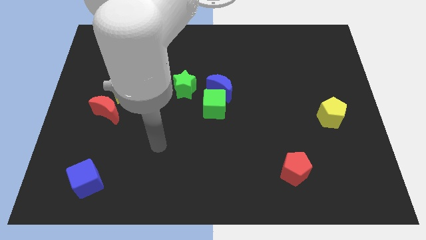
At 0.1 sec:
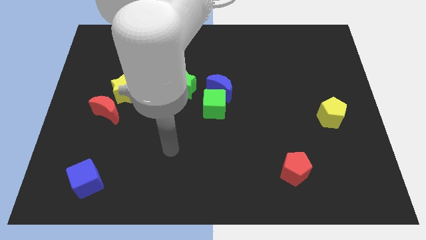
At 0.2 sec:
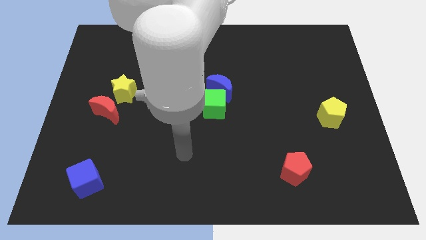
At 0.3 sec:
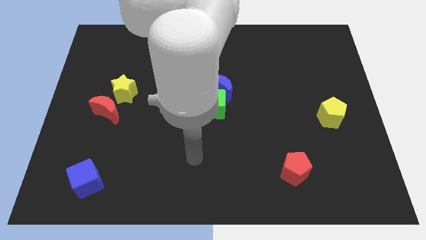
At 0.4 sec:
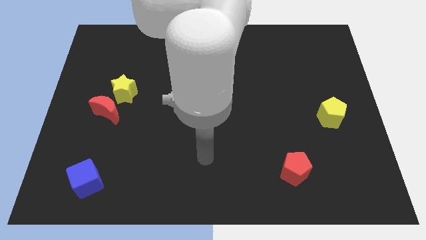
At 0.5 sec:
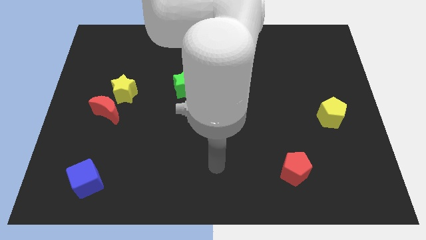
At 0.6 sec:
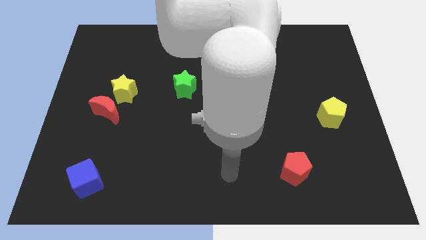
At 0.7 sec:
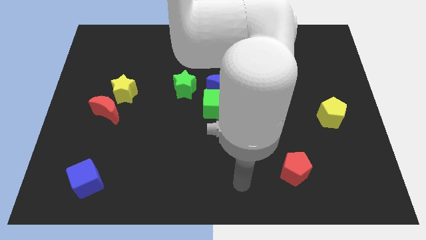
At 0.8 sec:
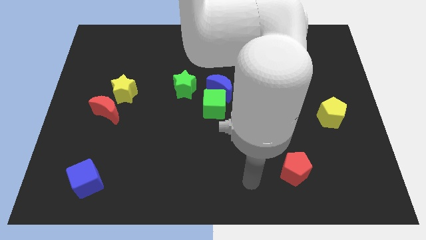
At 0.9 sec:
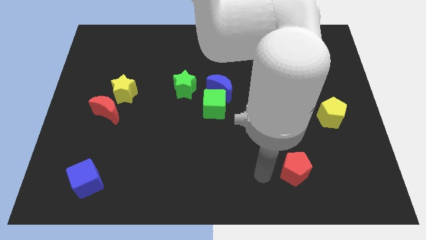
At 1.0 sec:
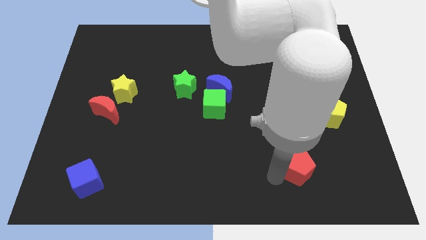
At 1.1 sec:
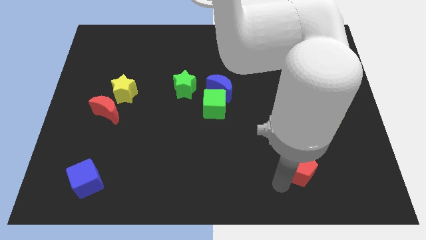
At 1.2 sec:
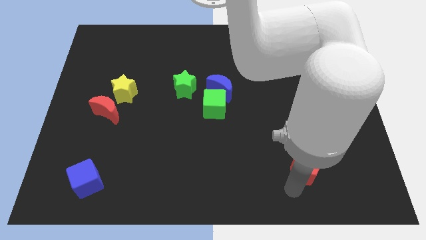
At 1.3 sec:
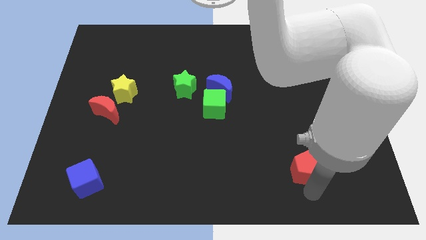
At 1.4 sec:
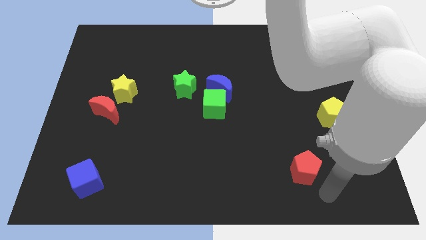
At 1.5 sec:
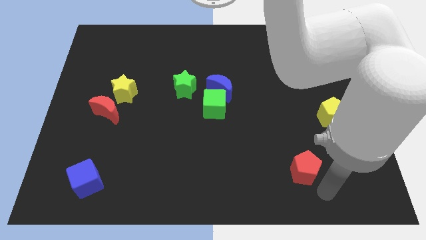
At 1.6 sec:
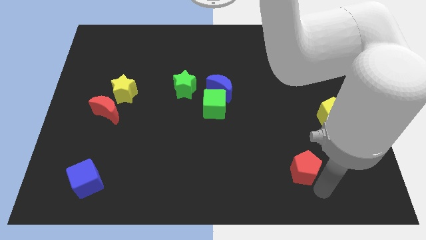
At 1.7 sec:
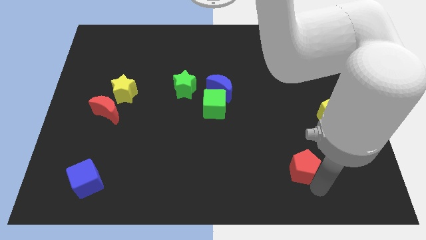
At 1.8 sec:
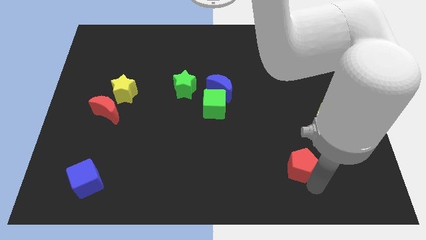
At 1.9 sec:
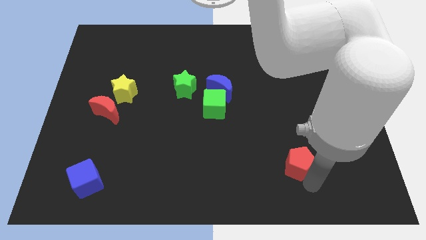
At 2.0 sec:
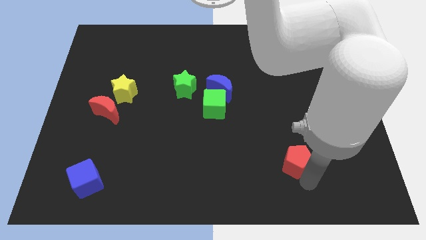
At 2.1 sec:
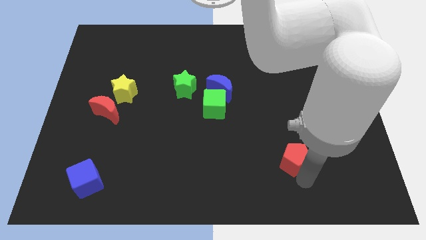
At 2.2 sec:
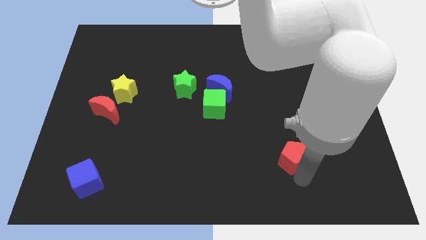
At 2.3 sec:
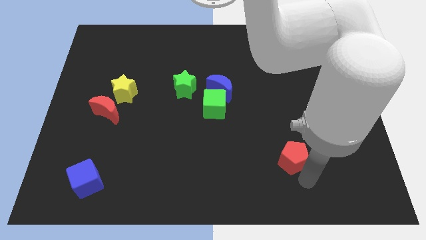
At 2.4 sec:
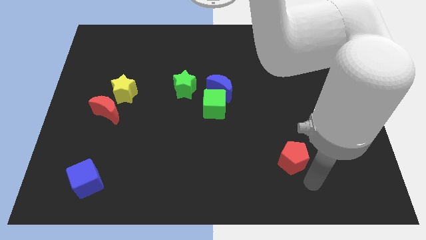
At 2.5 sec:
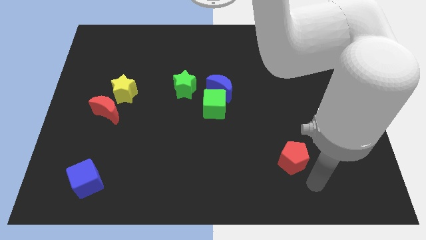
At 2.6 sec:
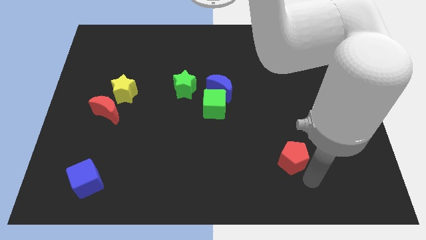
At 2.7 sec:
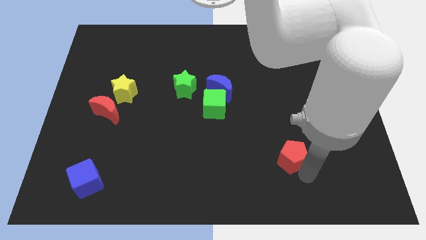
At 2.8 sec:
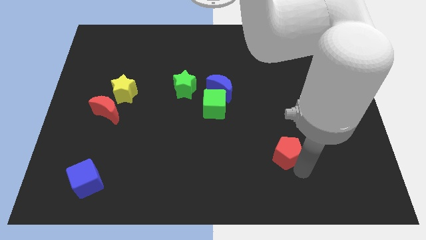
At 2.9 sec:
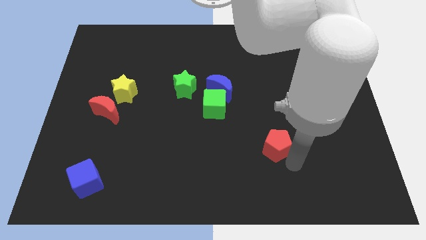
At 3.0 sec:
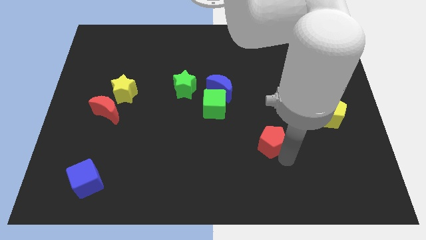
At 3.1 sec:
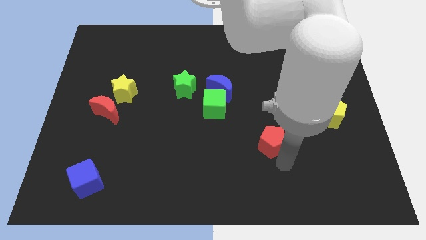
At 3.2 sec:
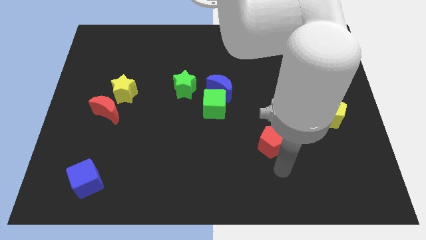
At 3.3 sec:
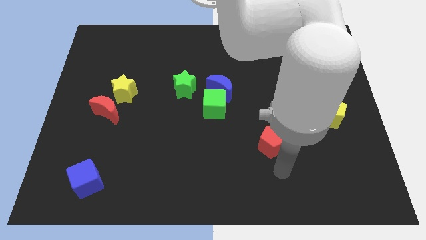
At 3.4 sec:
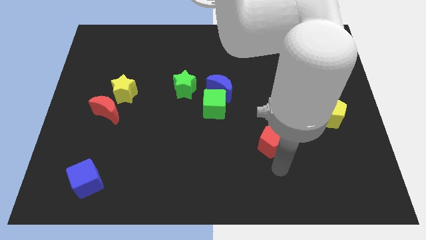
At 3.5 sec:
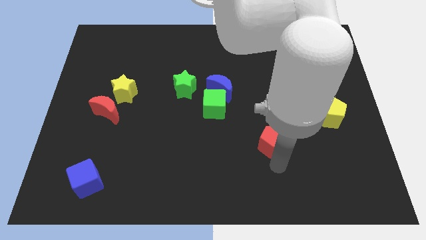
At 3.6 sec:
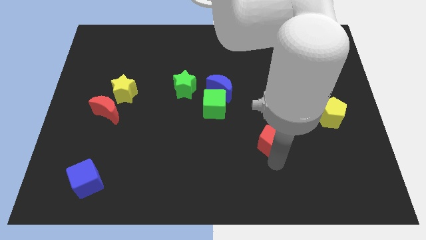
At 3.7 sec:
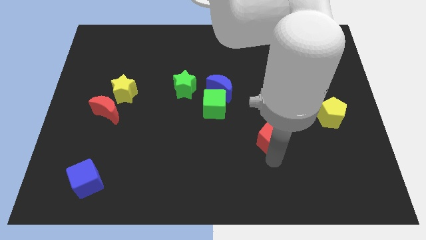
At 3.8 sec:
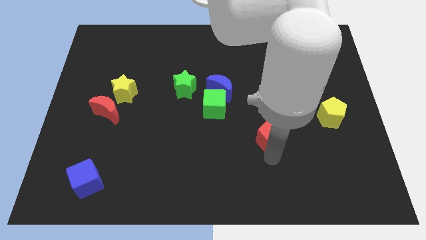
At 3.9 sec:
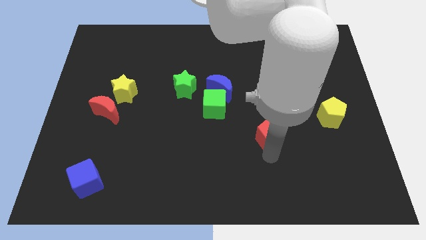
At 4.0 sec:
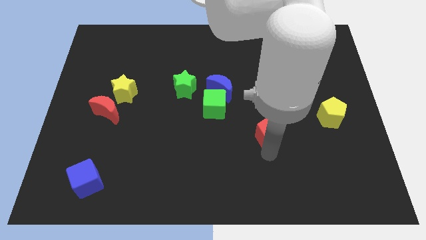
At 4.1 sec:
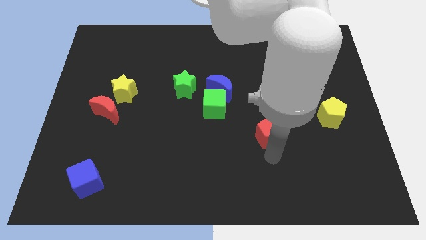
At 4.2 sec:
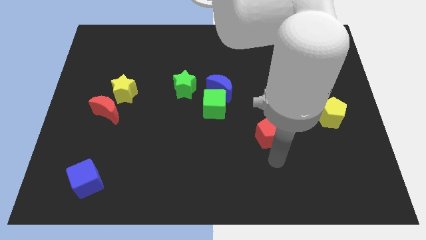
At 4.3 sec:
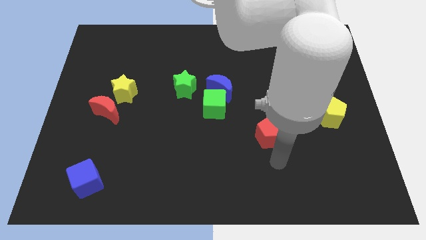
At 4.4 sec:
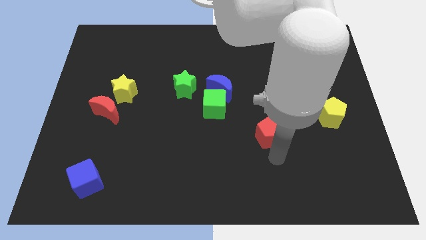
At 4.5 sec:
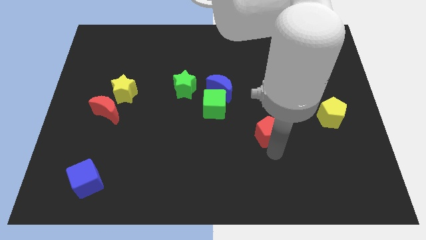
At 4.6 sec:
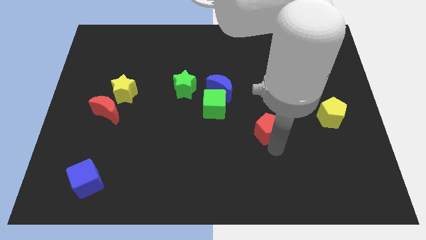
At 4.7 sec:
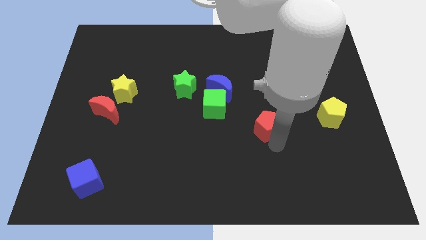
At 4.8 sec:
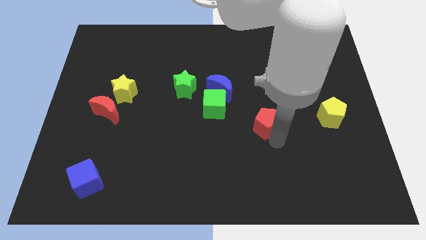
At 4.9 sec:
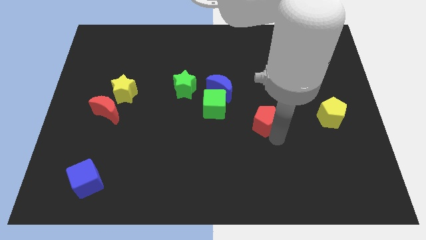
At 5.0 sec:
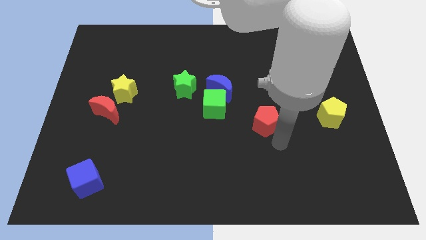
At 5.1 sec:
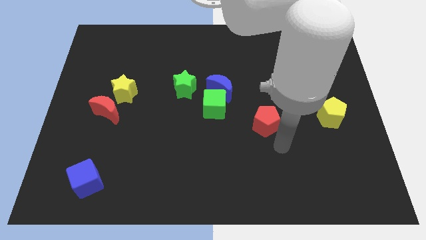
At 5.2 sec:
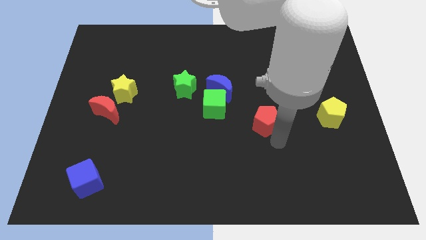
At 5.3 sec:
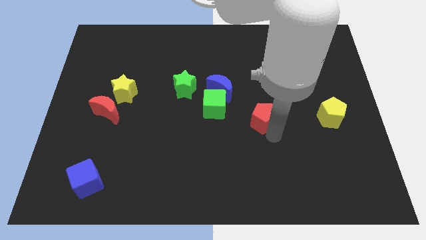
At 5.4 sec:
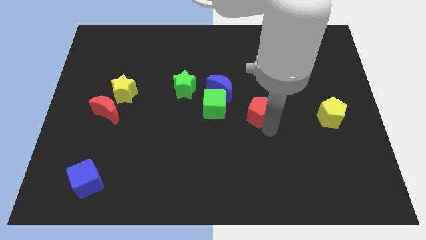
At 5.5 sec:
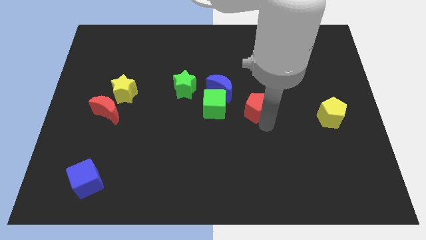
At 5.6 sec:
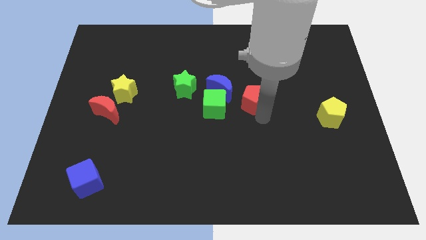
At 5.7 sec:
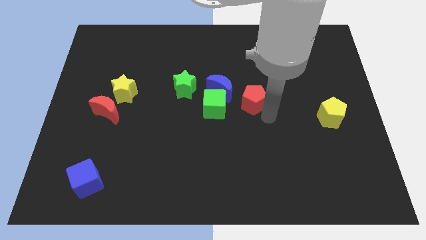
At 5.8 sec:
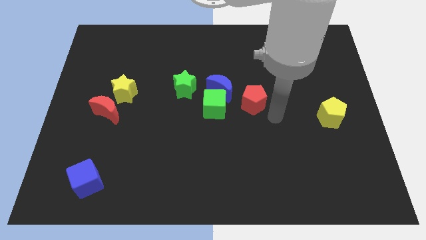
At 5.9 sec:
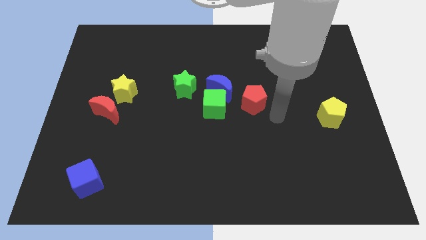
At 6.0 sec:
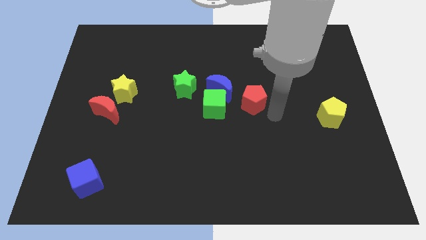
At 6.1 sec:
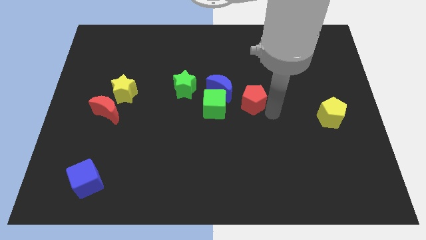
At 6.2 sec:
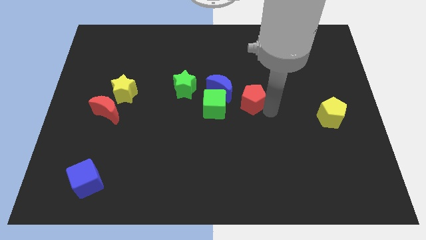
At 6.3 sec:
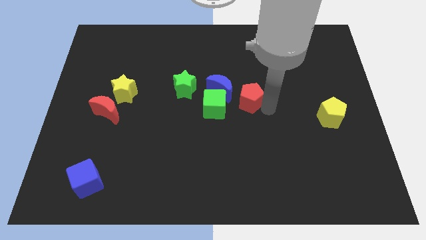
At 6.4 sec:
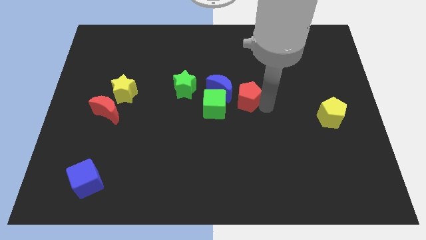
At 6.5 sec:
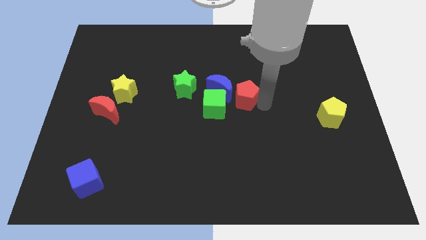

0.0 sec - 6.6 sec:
put the red pentagon to the right of the green star

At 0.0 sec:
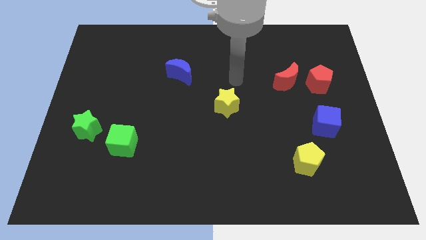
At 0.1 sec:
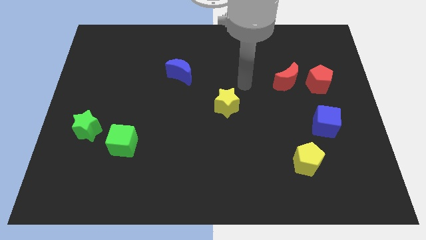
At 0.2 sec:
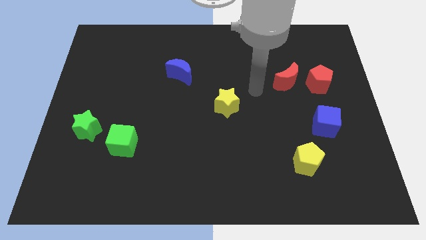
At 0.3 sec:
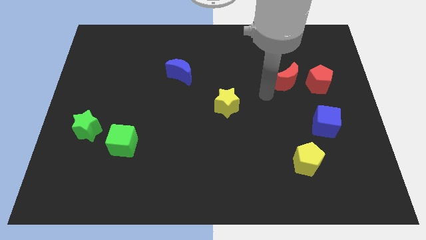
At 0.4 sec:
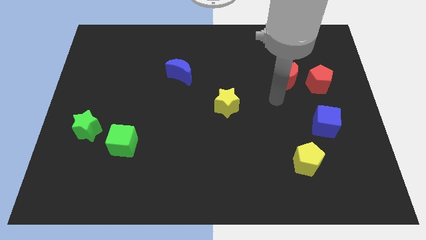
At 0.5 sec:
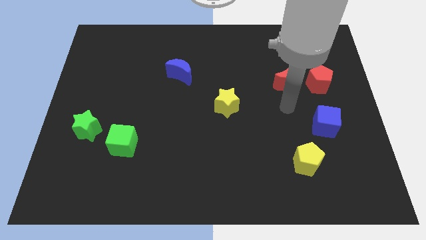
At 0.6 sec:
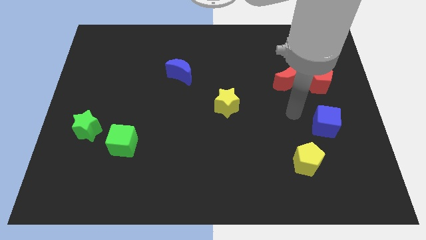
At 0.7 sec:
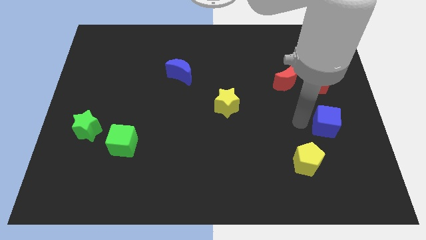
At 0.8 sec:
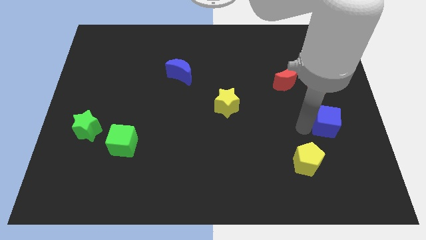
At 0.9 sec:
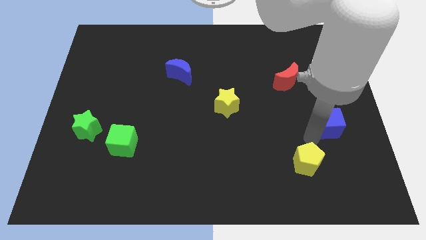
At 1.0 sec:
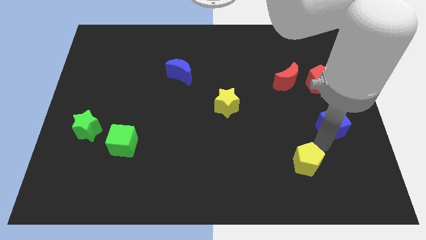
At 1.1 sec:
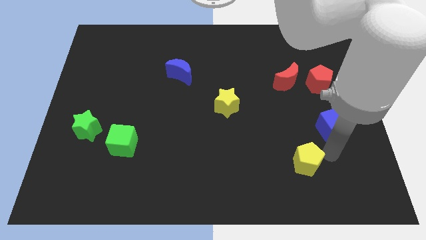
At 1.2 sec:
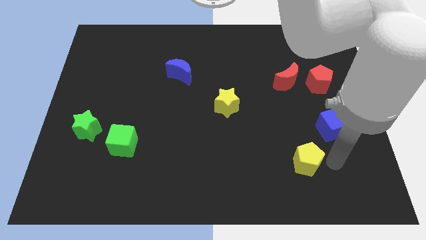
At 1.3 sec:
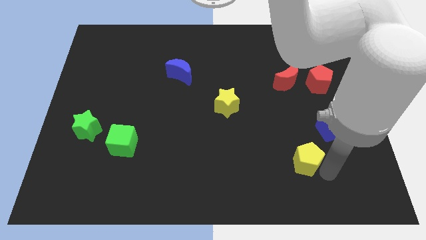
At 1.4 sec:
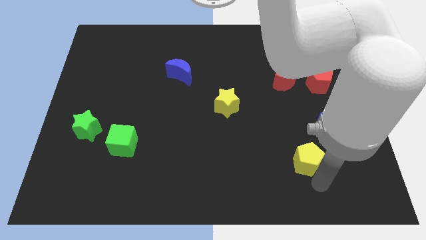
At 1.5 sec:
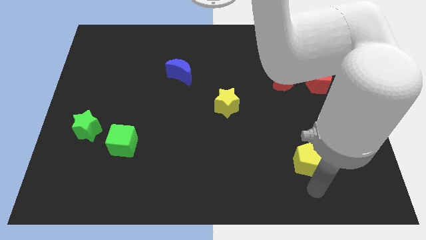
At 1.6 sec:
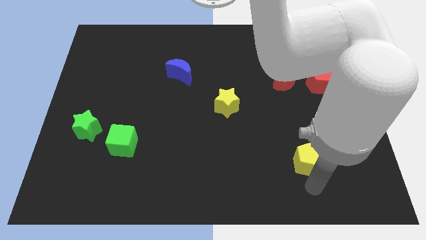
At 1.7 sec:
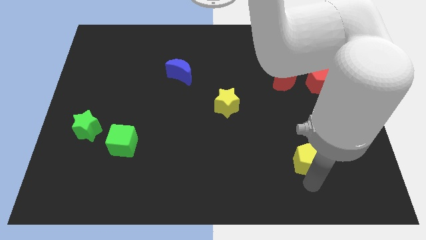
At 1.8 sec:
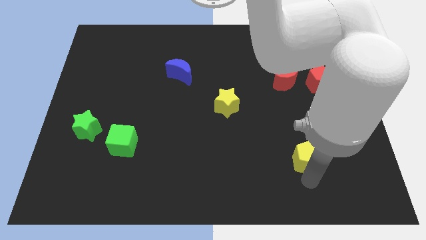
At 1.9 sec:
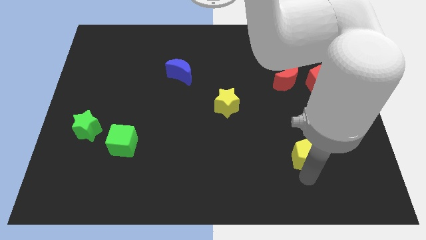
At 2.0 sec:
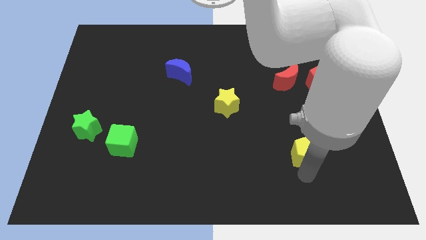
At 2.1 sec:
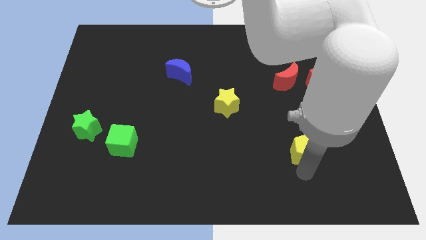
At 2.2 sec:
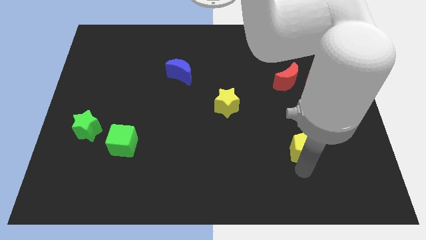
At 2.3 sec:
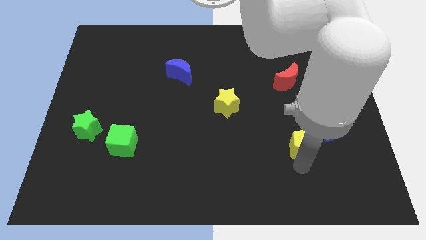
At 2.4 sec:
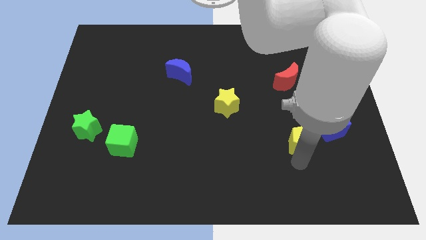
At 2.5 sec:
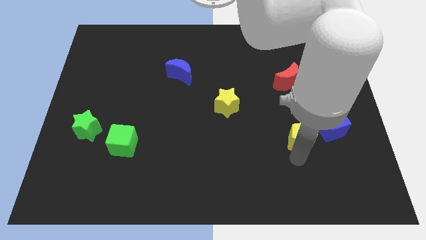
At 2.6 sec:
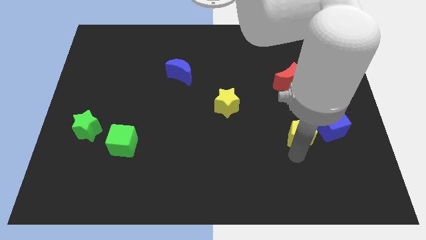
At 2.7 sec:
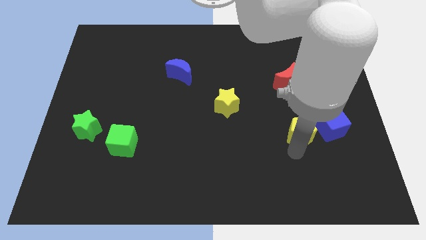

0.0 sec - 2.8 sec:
put the yellow pentagon to the bottom of the red moon
